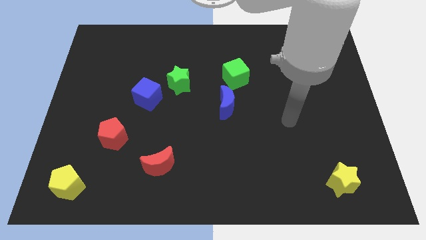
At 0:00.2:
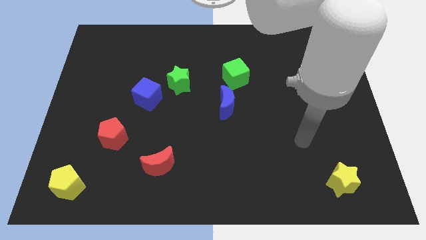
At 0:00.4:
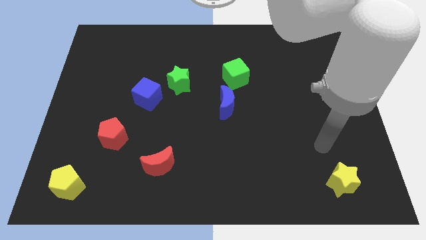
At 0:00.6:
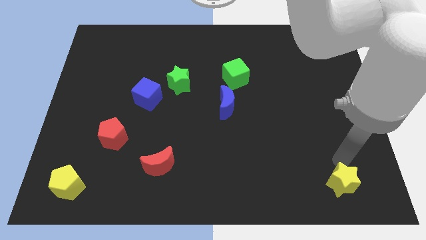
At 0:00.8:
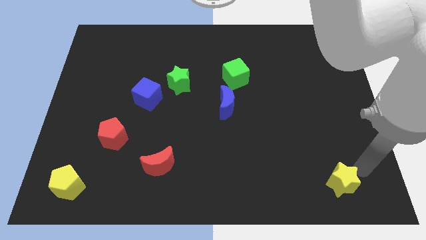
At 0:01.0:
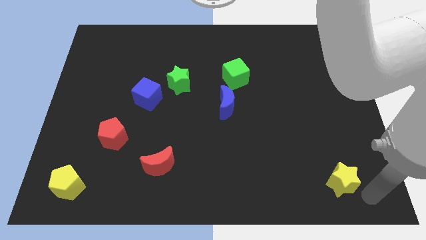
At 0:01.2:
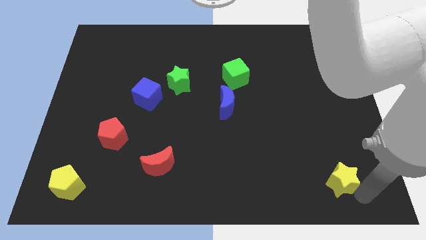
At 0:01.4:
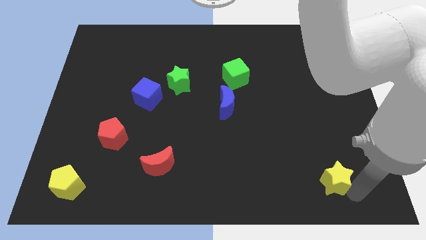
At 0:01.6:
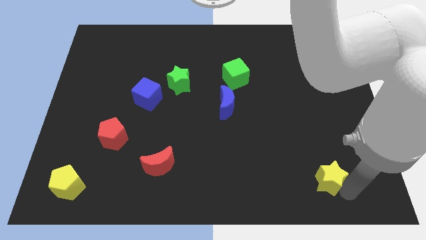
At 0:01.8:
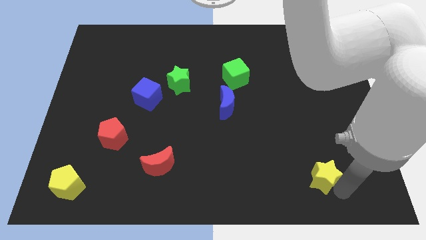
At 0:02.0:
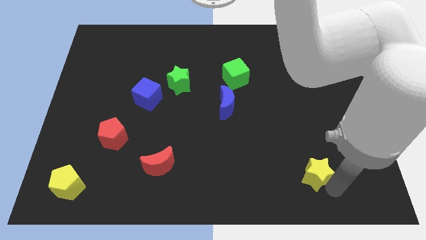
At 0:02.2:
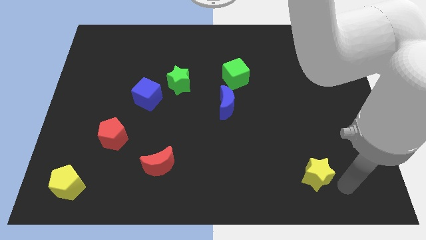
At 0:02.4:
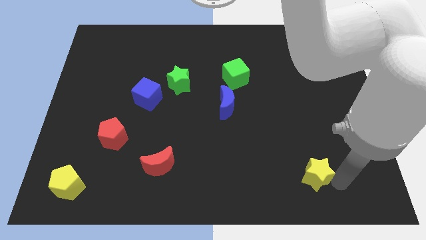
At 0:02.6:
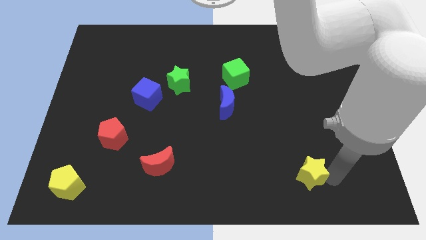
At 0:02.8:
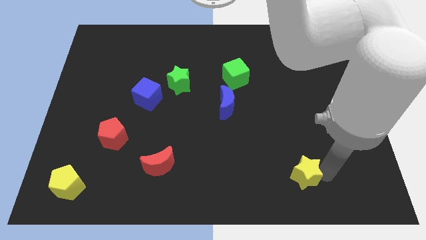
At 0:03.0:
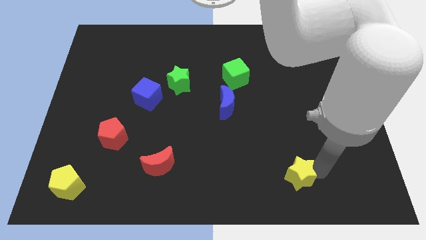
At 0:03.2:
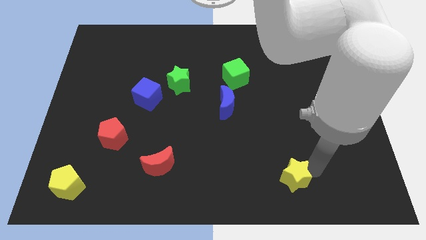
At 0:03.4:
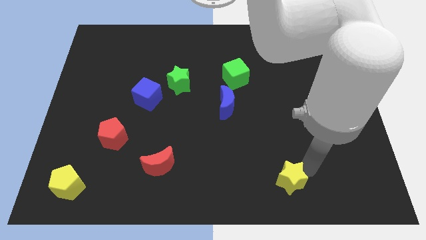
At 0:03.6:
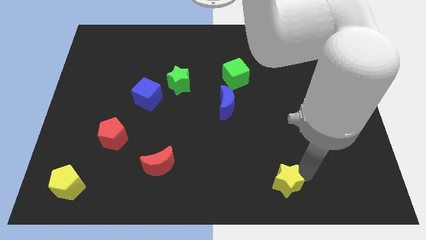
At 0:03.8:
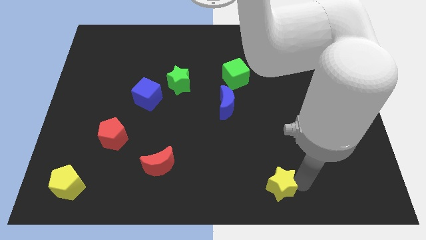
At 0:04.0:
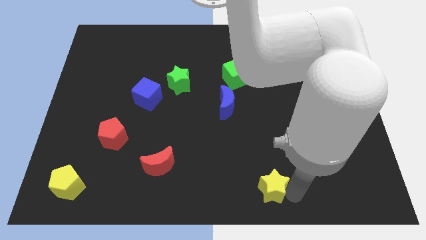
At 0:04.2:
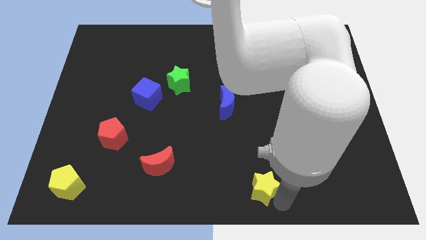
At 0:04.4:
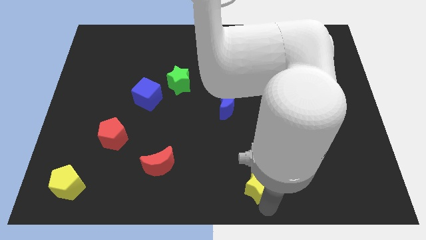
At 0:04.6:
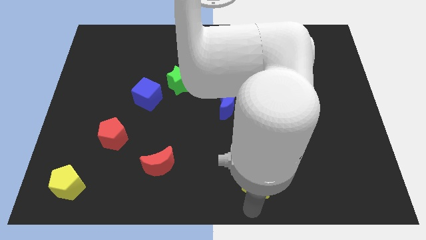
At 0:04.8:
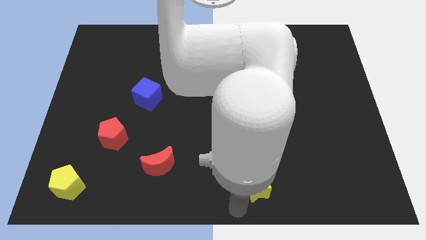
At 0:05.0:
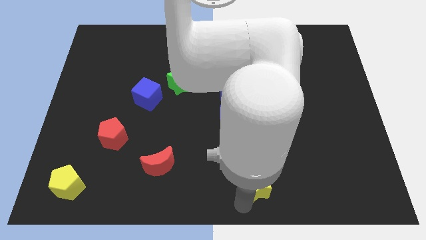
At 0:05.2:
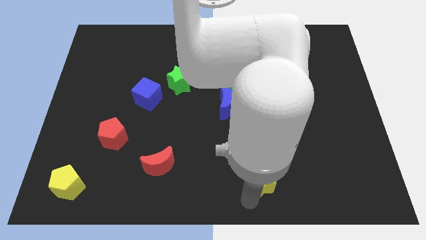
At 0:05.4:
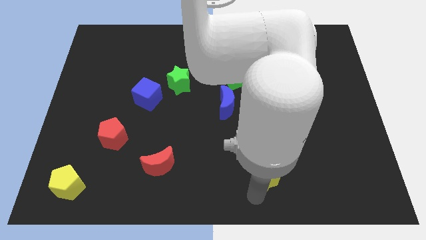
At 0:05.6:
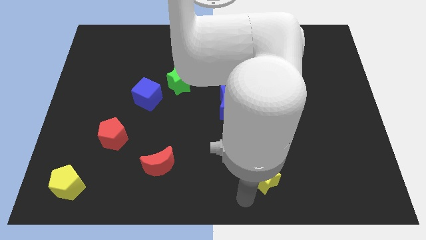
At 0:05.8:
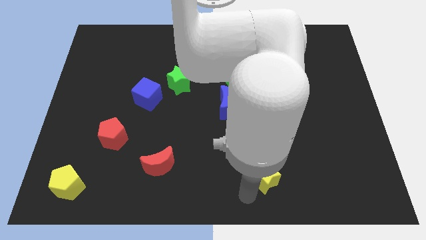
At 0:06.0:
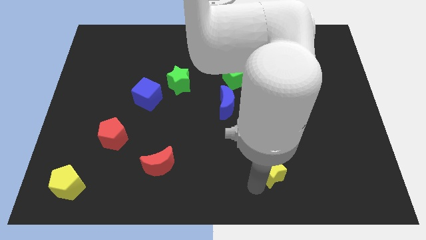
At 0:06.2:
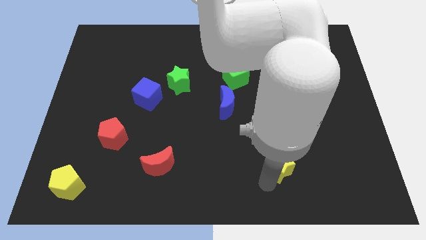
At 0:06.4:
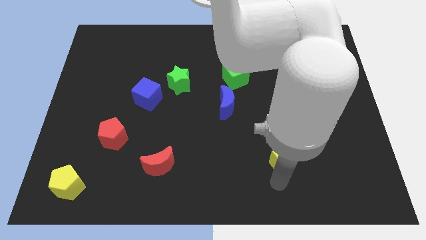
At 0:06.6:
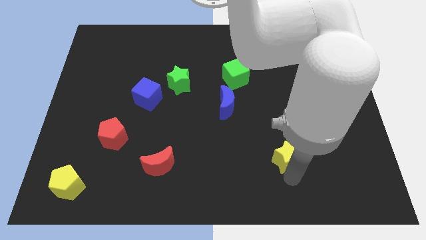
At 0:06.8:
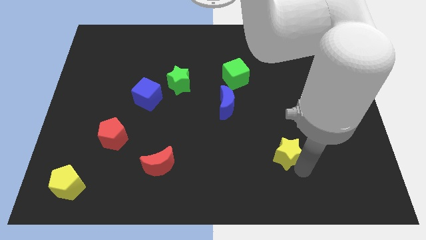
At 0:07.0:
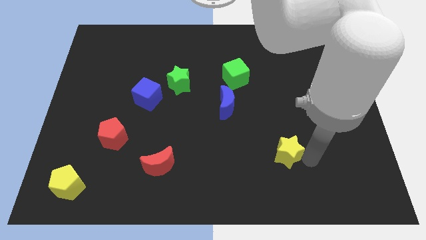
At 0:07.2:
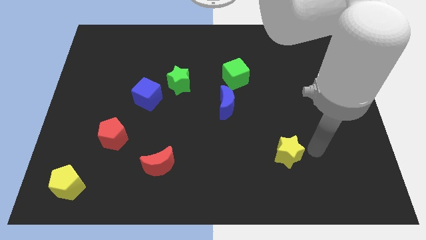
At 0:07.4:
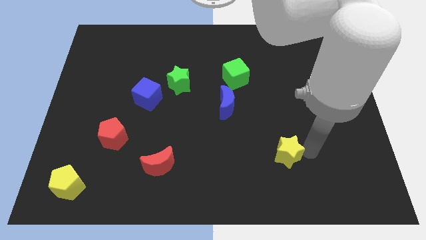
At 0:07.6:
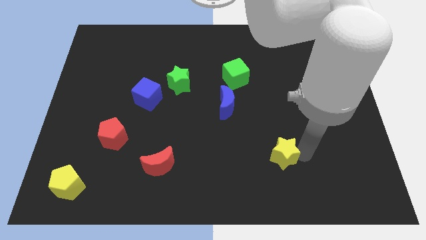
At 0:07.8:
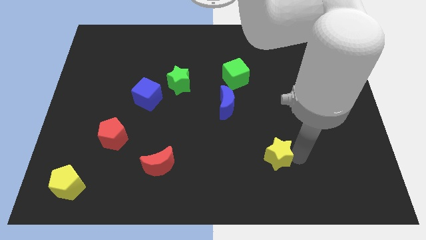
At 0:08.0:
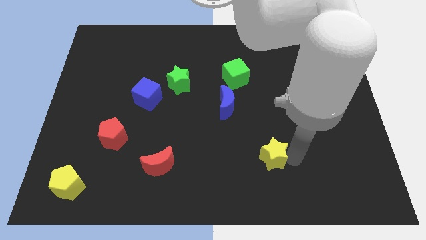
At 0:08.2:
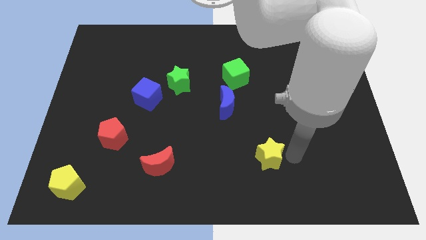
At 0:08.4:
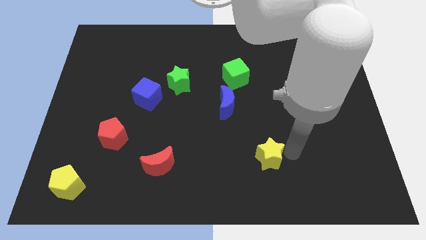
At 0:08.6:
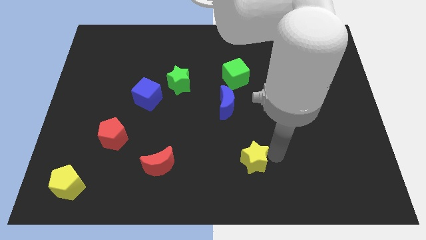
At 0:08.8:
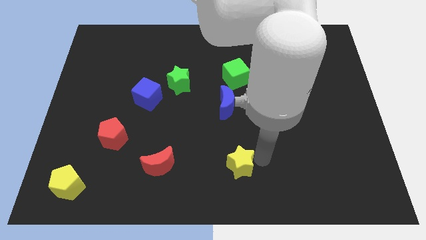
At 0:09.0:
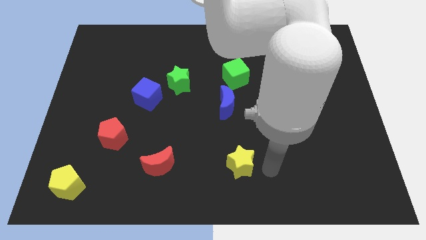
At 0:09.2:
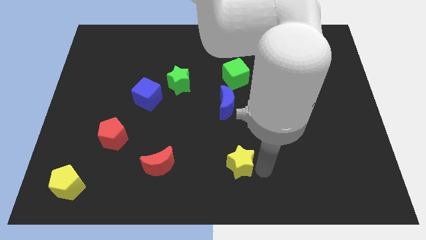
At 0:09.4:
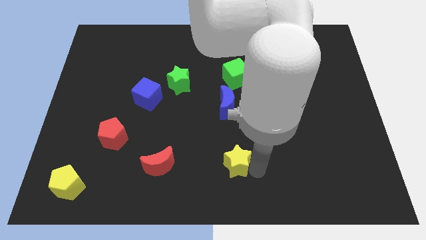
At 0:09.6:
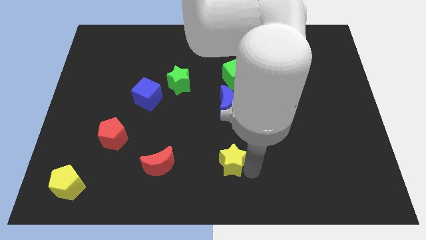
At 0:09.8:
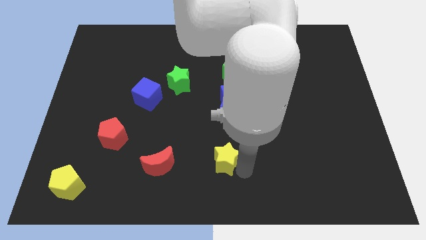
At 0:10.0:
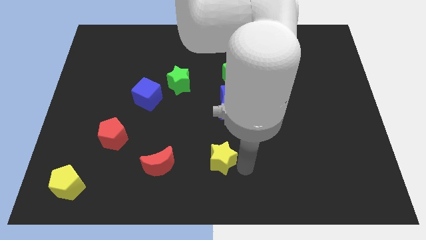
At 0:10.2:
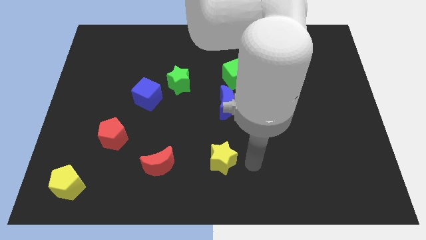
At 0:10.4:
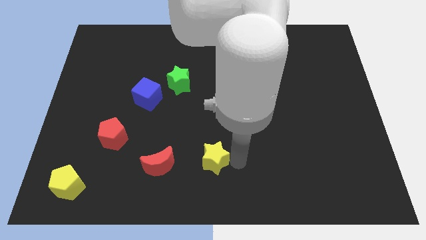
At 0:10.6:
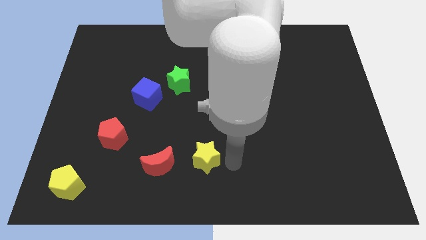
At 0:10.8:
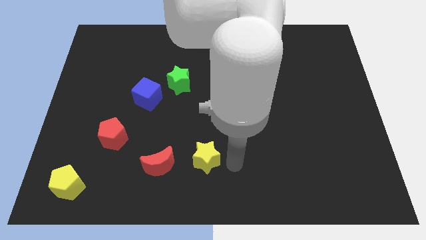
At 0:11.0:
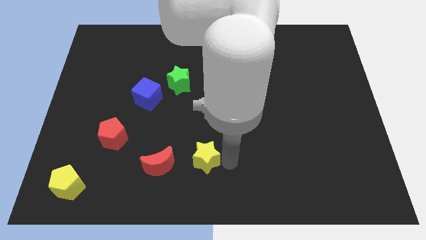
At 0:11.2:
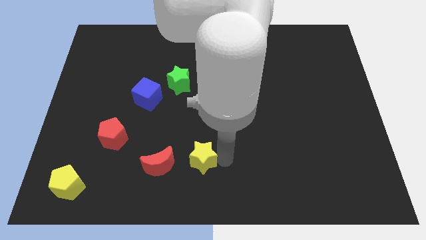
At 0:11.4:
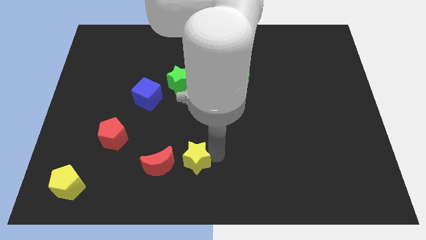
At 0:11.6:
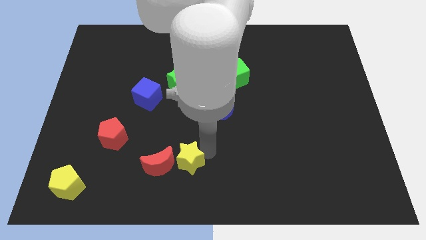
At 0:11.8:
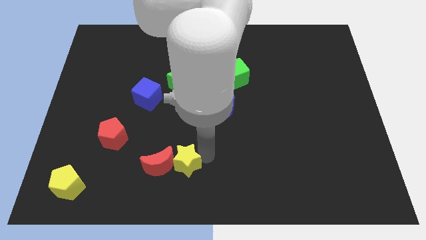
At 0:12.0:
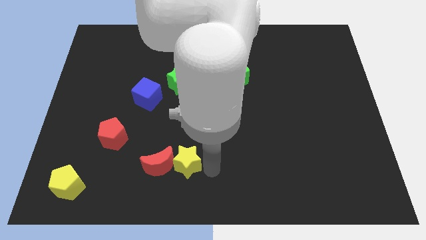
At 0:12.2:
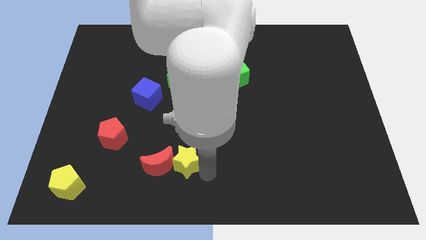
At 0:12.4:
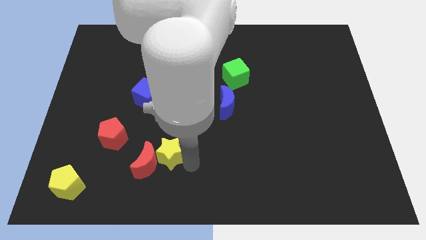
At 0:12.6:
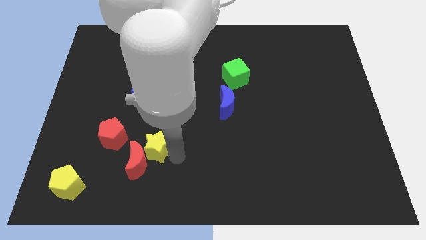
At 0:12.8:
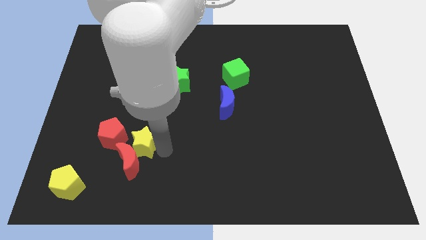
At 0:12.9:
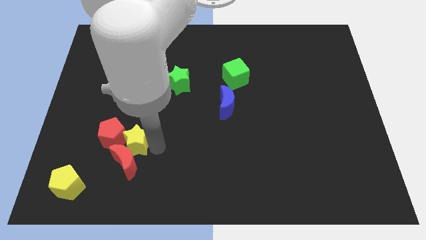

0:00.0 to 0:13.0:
slide the yellow star close to the red pentagon
